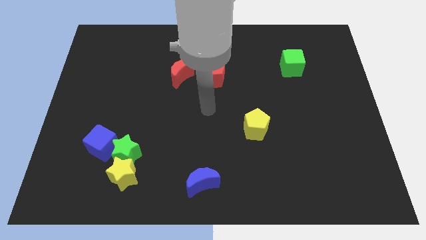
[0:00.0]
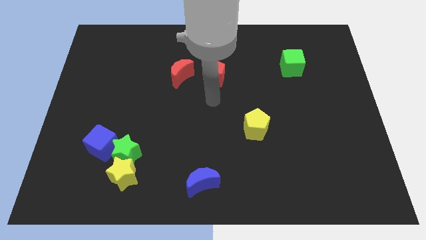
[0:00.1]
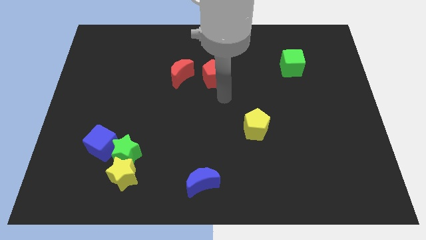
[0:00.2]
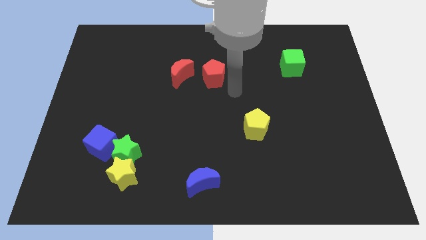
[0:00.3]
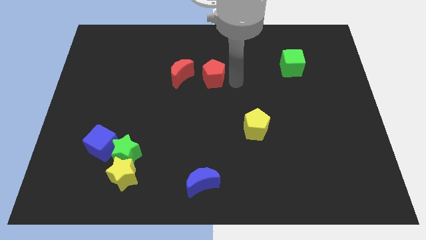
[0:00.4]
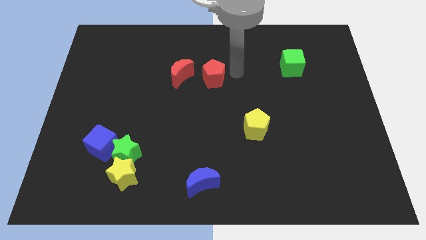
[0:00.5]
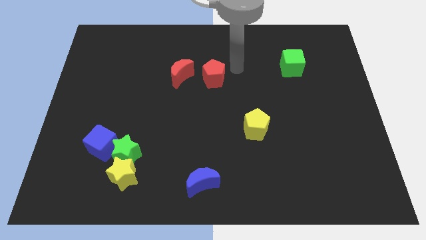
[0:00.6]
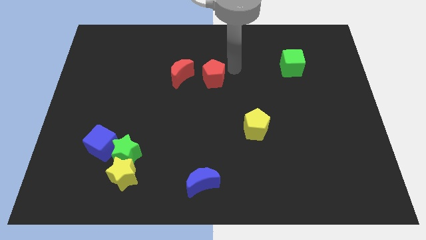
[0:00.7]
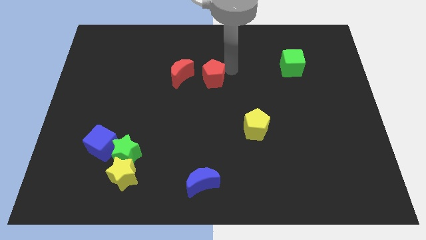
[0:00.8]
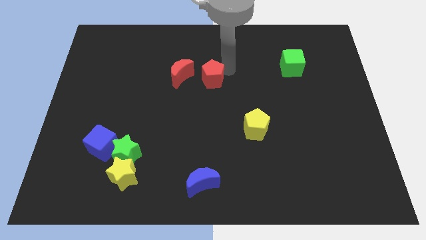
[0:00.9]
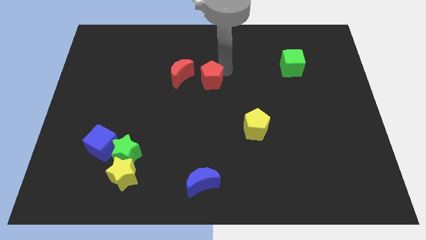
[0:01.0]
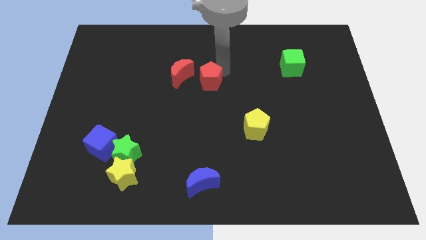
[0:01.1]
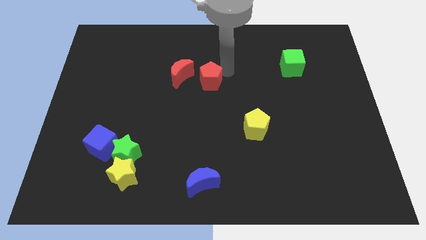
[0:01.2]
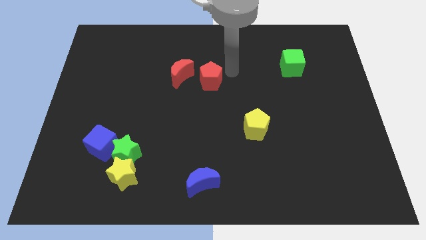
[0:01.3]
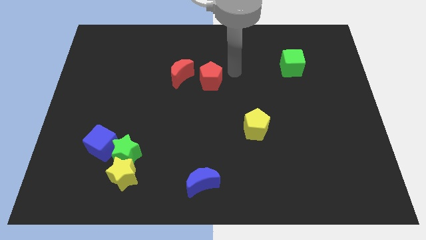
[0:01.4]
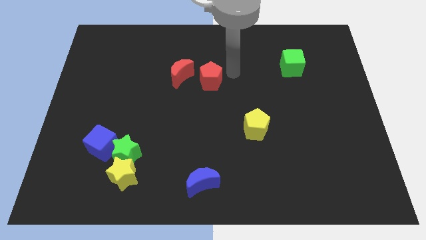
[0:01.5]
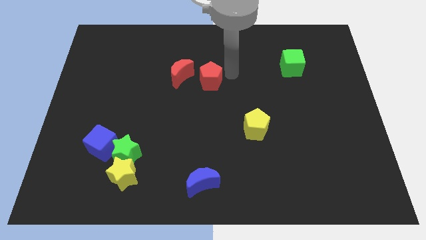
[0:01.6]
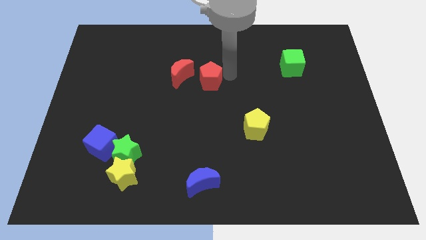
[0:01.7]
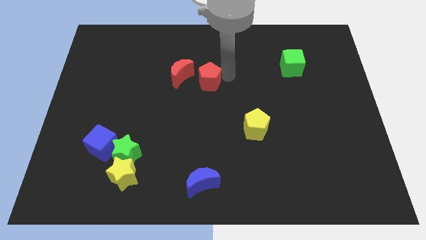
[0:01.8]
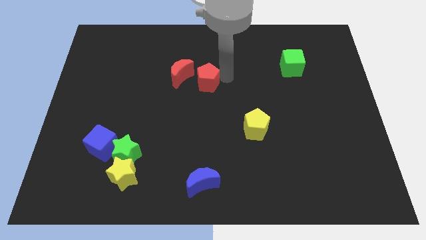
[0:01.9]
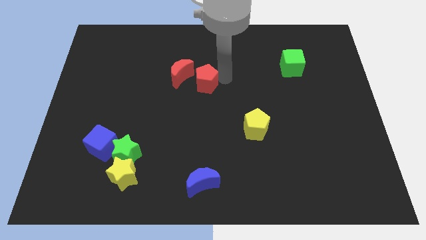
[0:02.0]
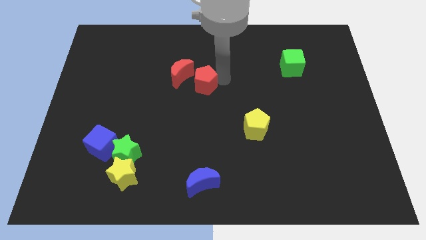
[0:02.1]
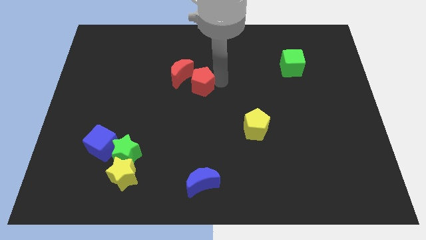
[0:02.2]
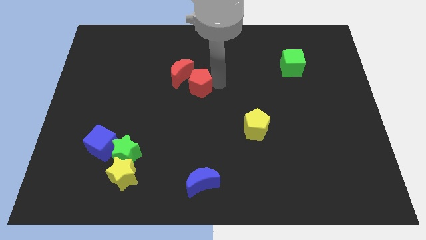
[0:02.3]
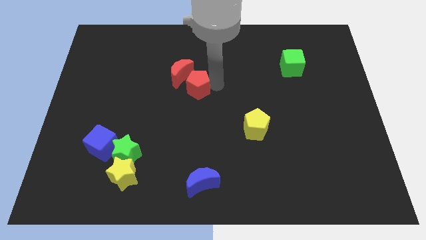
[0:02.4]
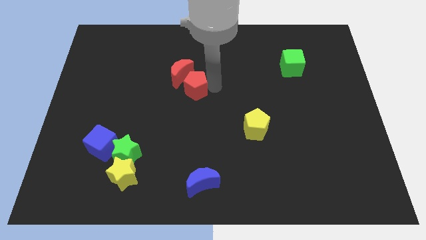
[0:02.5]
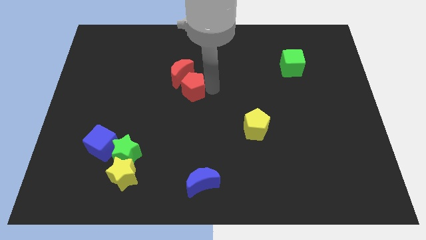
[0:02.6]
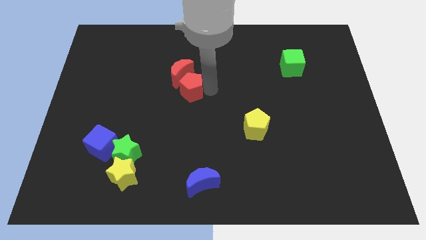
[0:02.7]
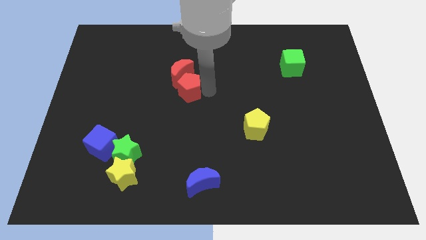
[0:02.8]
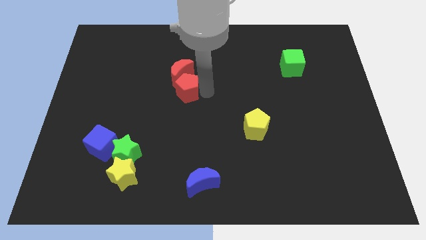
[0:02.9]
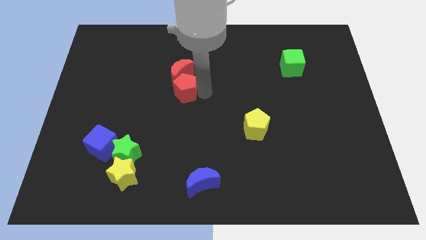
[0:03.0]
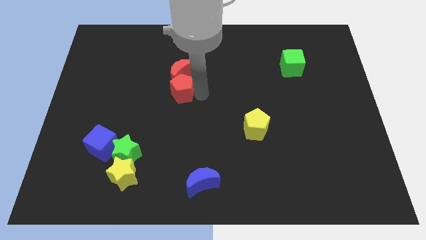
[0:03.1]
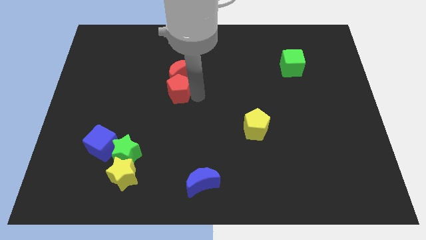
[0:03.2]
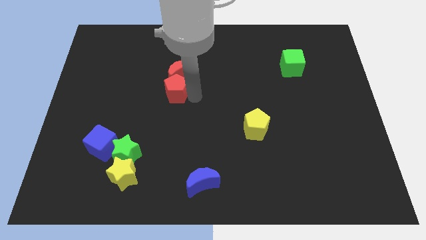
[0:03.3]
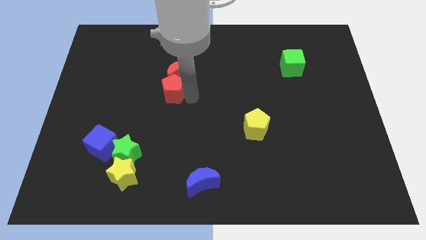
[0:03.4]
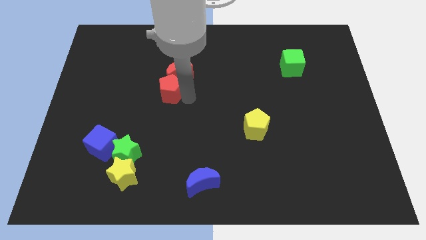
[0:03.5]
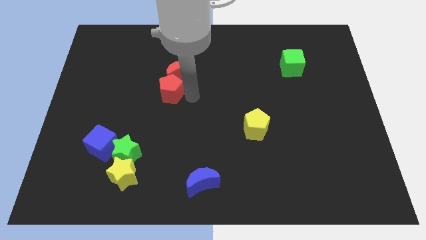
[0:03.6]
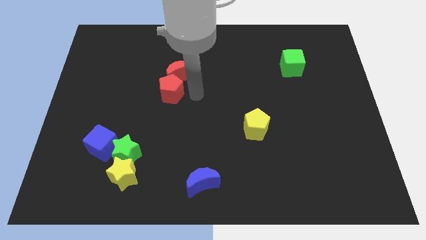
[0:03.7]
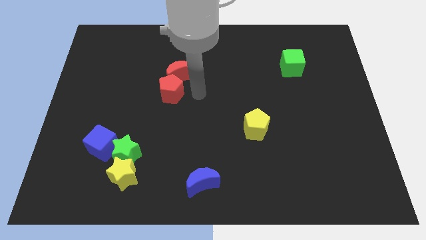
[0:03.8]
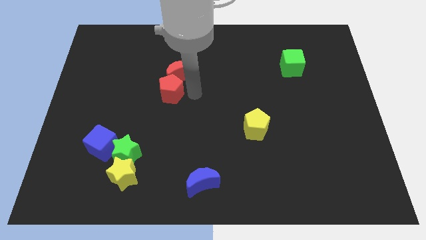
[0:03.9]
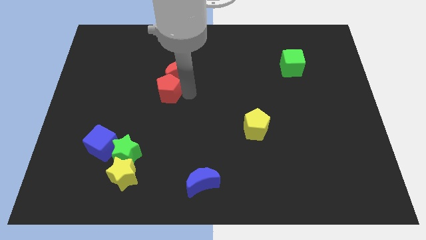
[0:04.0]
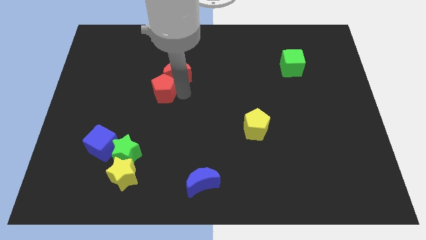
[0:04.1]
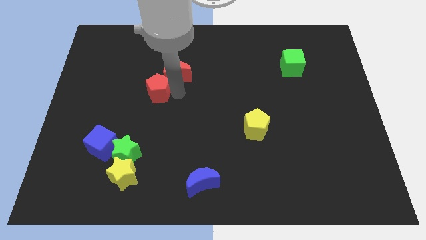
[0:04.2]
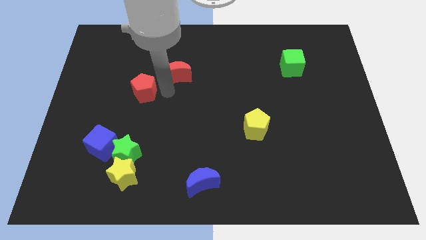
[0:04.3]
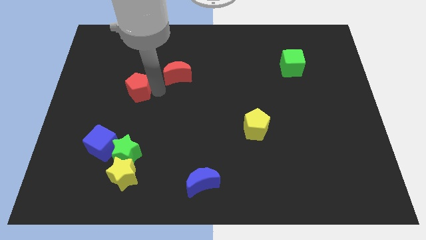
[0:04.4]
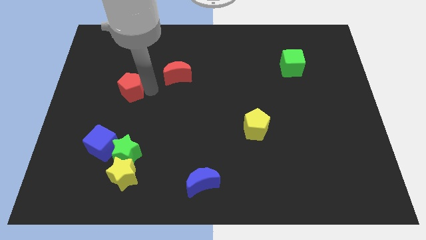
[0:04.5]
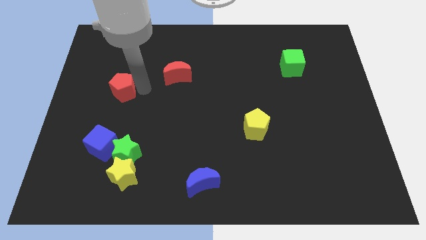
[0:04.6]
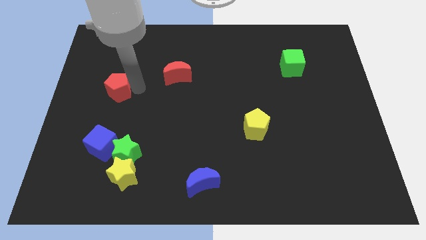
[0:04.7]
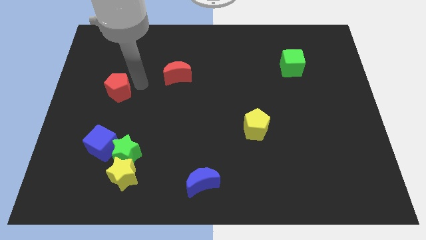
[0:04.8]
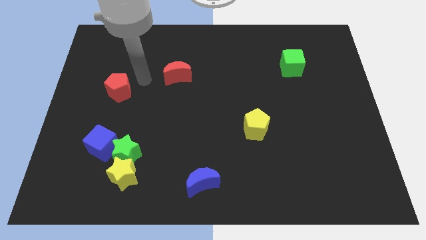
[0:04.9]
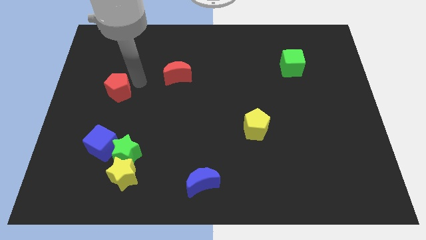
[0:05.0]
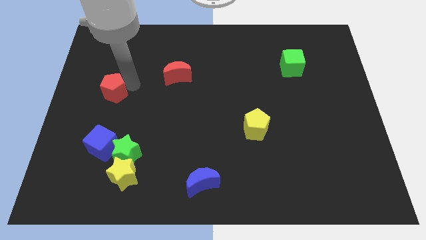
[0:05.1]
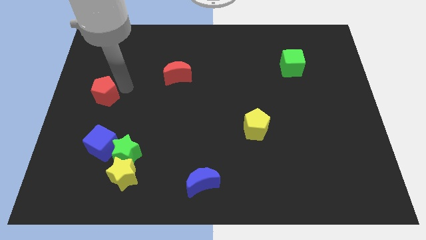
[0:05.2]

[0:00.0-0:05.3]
put the red pentagon to the left side
